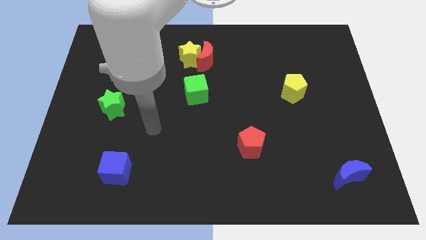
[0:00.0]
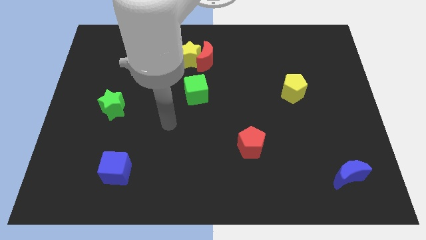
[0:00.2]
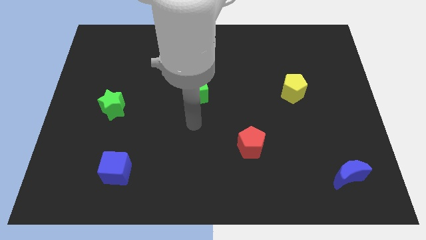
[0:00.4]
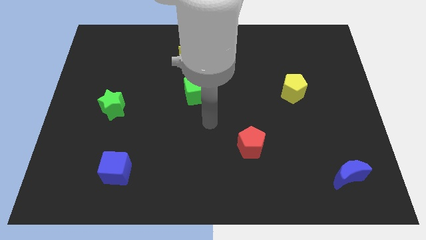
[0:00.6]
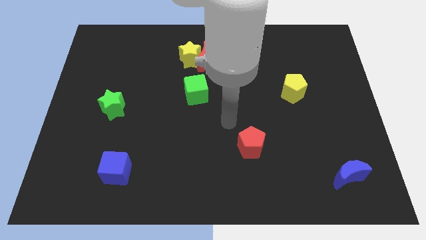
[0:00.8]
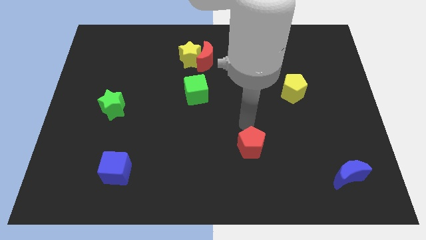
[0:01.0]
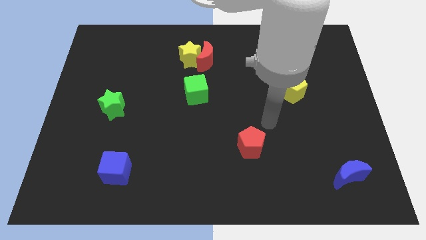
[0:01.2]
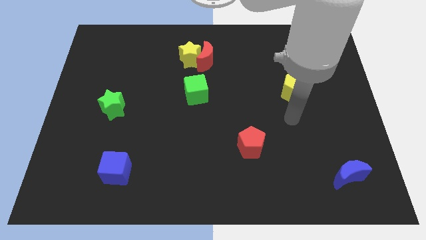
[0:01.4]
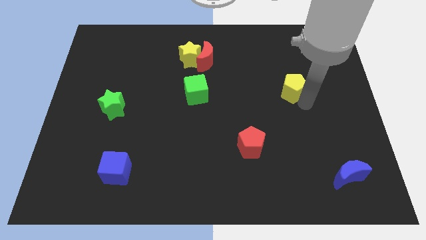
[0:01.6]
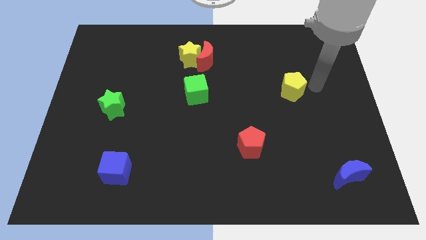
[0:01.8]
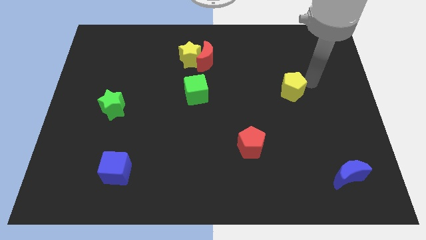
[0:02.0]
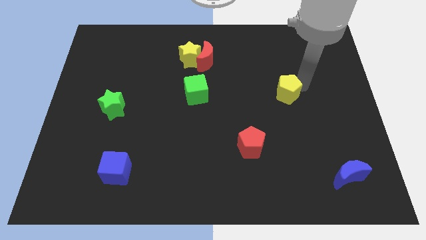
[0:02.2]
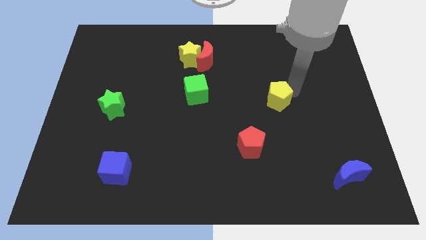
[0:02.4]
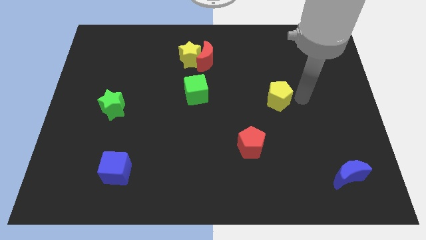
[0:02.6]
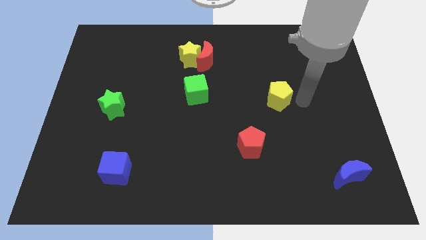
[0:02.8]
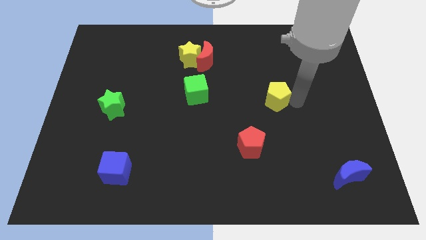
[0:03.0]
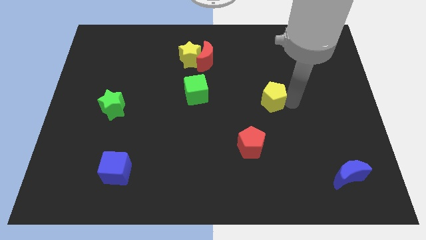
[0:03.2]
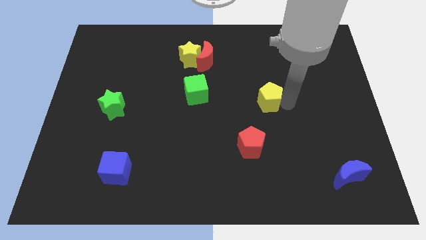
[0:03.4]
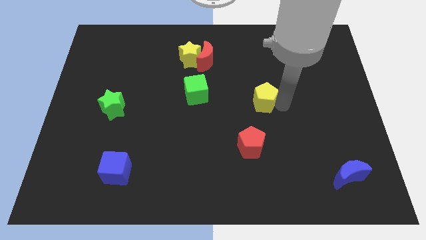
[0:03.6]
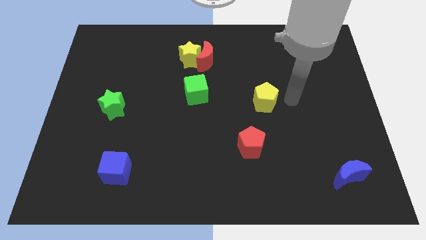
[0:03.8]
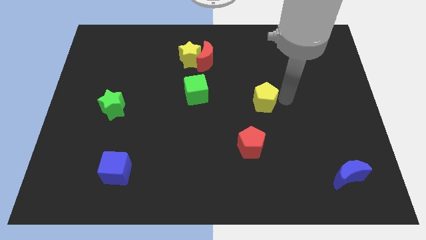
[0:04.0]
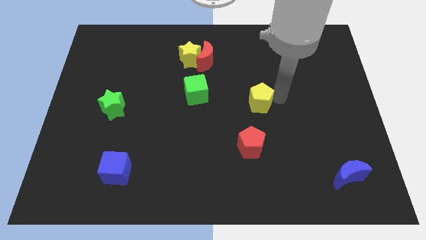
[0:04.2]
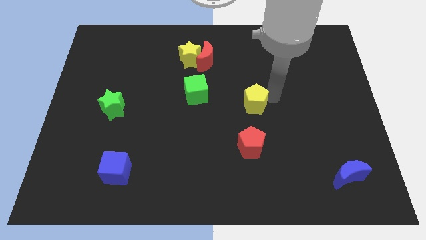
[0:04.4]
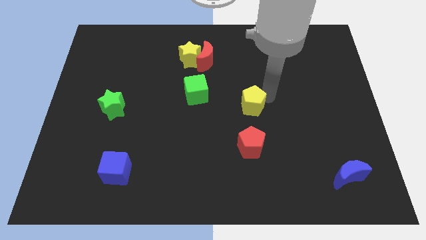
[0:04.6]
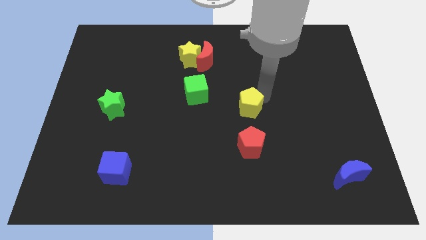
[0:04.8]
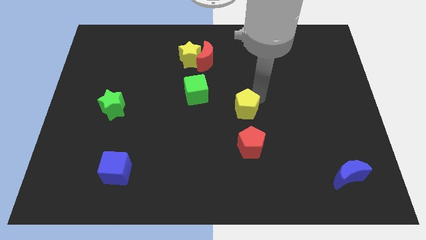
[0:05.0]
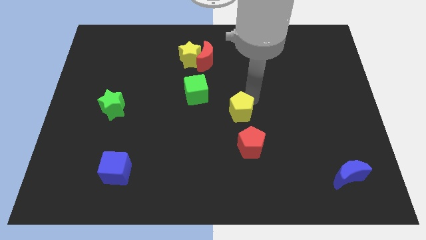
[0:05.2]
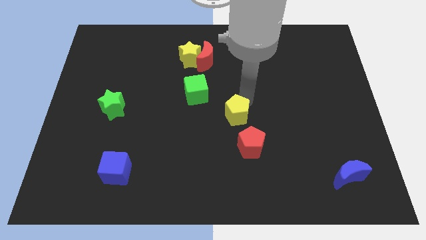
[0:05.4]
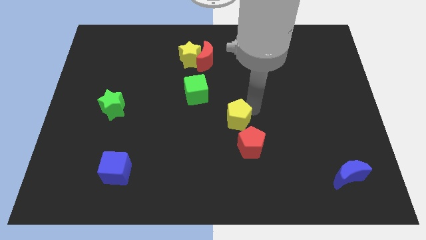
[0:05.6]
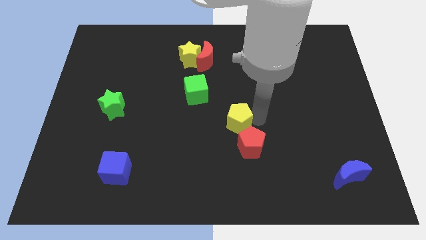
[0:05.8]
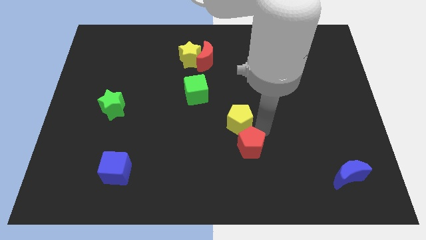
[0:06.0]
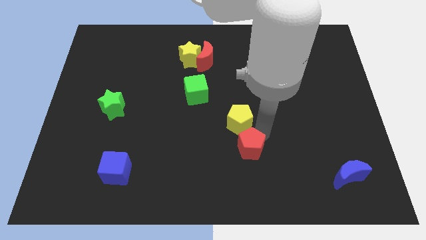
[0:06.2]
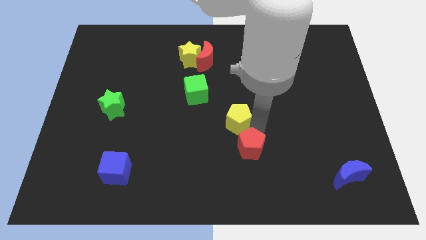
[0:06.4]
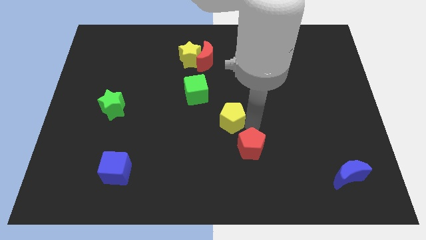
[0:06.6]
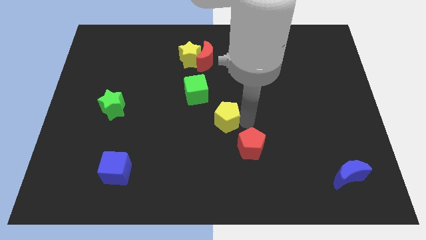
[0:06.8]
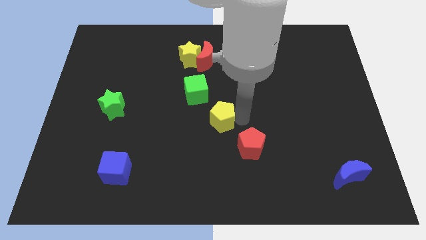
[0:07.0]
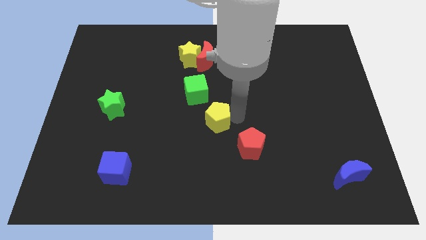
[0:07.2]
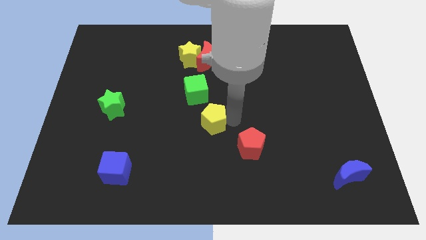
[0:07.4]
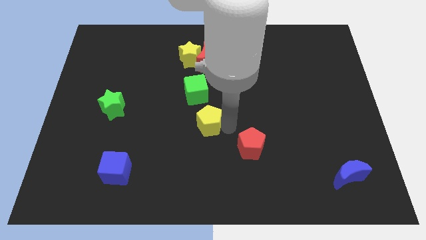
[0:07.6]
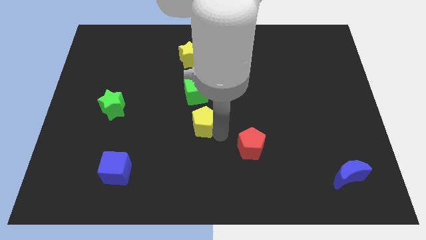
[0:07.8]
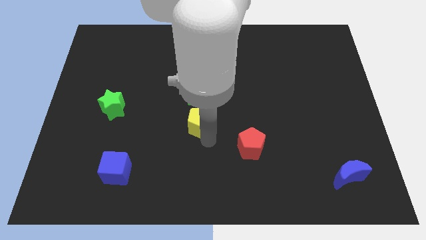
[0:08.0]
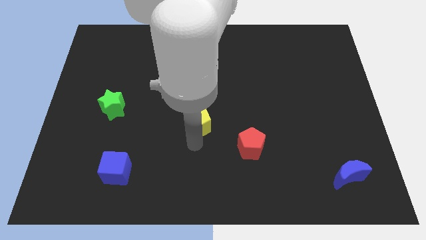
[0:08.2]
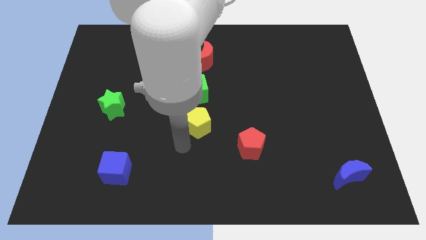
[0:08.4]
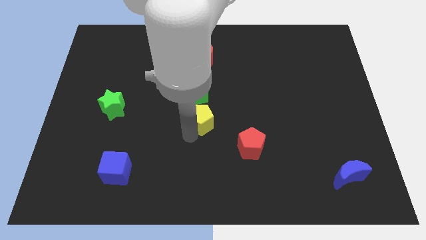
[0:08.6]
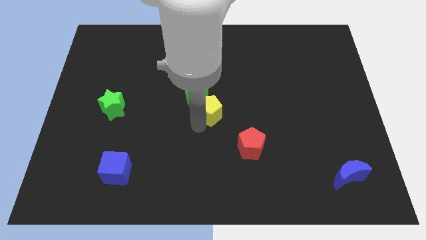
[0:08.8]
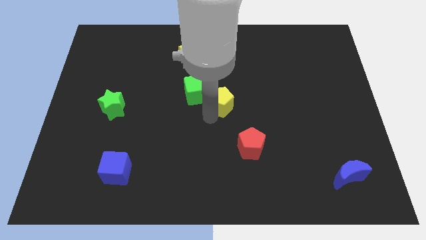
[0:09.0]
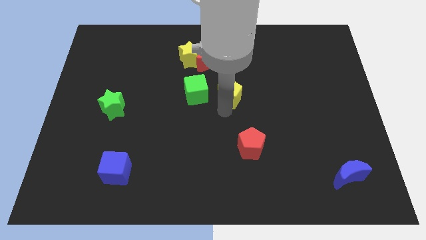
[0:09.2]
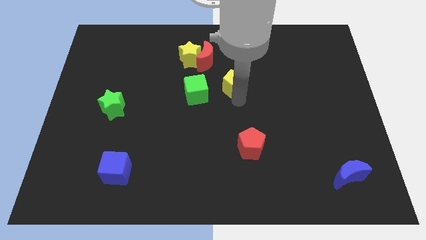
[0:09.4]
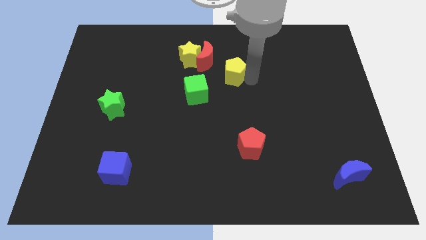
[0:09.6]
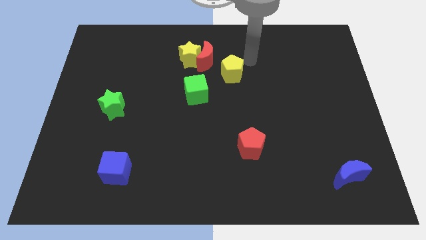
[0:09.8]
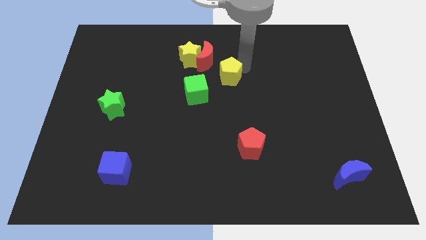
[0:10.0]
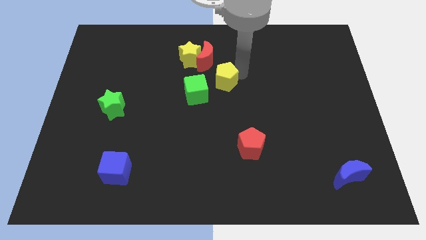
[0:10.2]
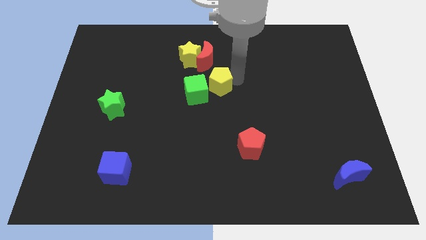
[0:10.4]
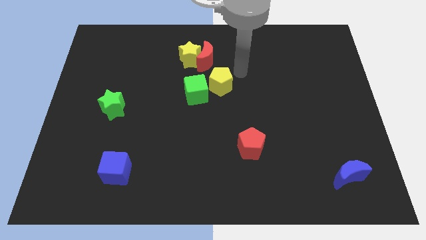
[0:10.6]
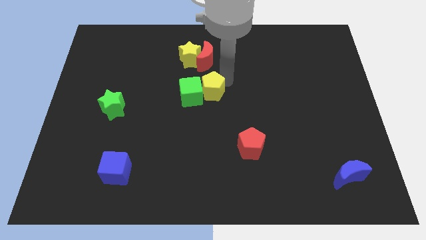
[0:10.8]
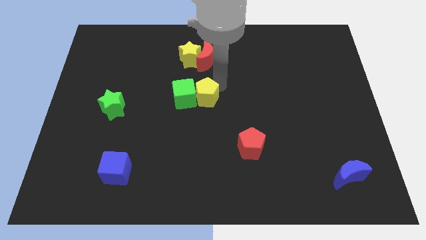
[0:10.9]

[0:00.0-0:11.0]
move the yellow pentagon to the left

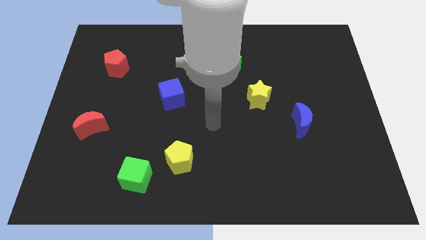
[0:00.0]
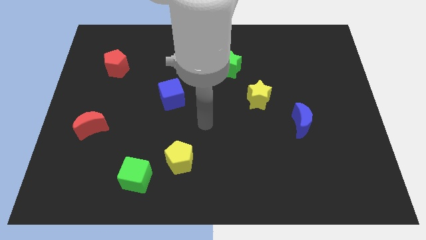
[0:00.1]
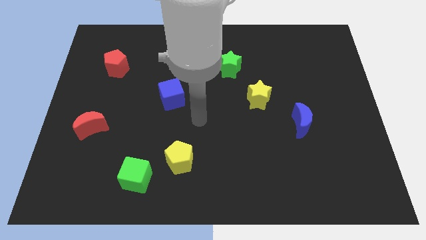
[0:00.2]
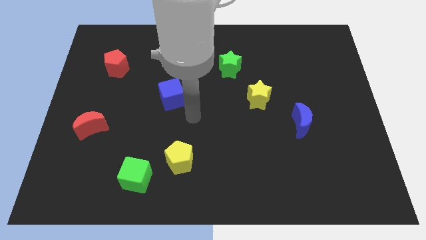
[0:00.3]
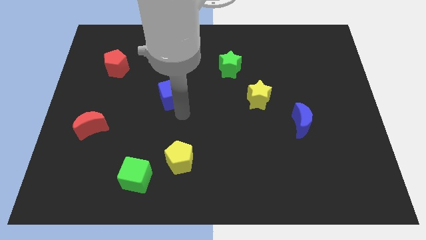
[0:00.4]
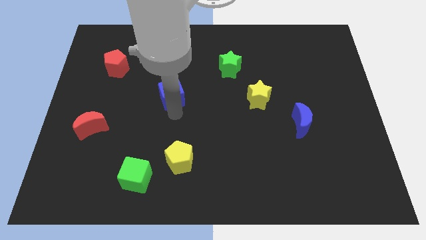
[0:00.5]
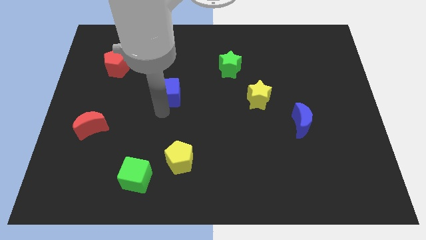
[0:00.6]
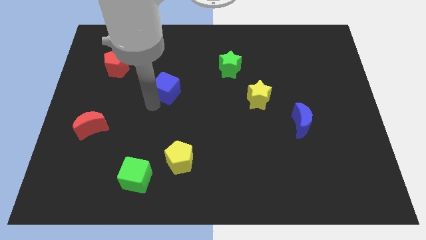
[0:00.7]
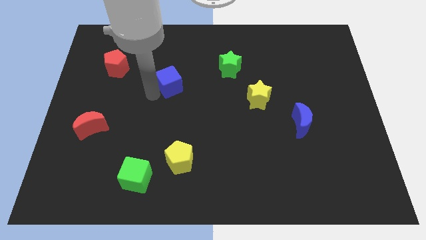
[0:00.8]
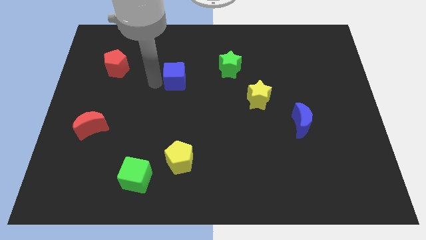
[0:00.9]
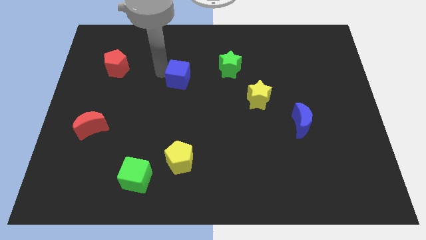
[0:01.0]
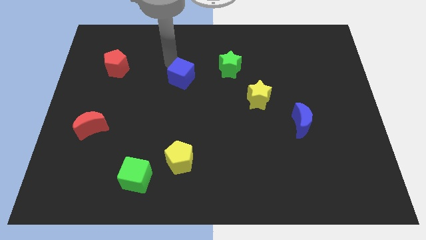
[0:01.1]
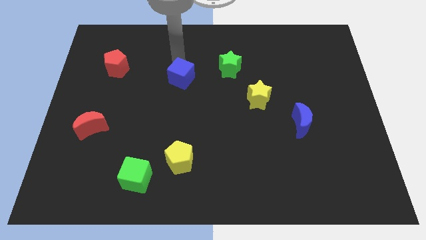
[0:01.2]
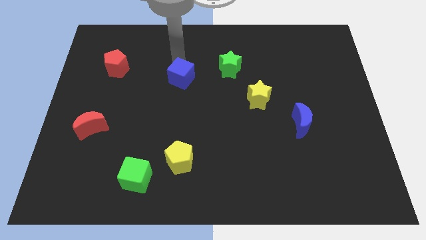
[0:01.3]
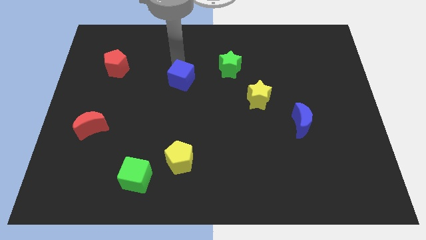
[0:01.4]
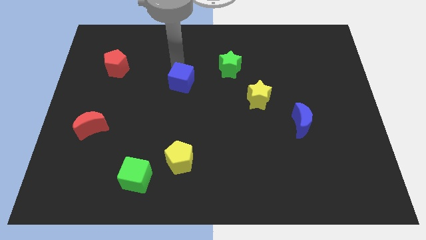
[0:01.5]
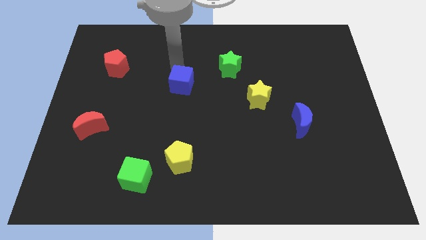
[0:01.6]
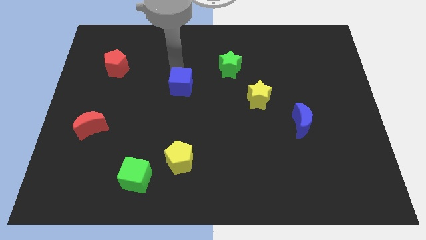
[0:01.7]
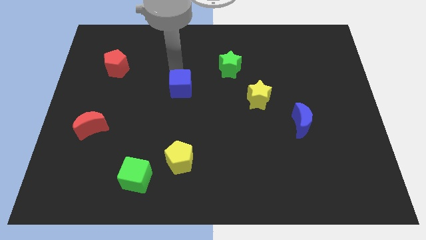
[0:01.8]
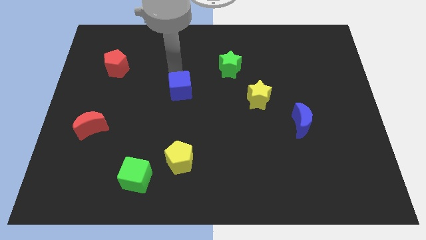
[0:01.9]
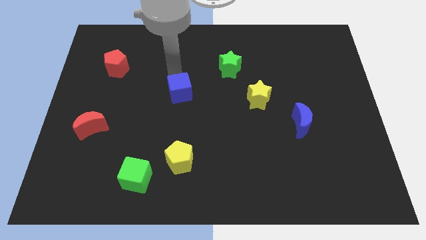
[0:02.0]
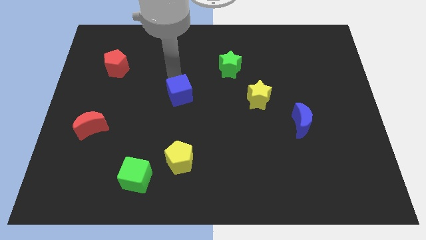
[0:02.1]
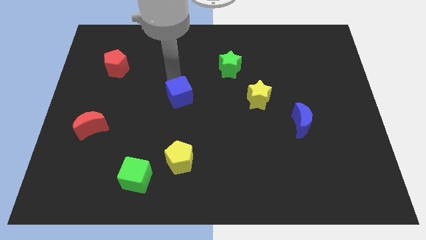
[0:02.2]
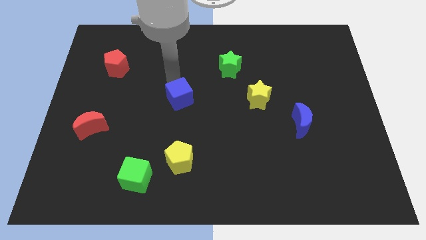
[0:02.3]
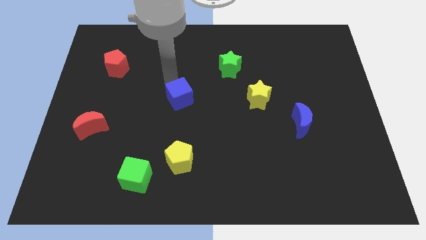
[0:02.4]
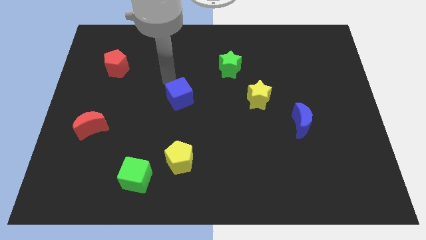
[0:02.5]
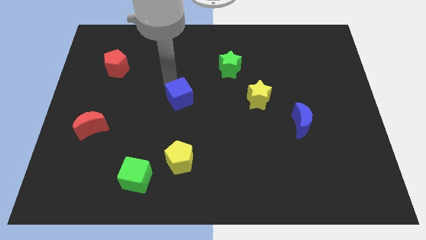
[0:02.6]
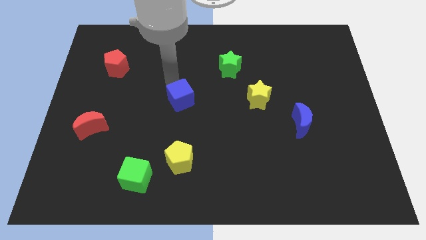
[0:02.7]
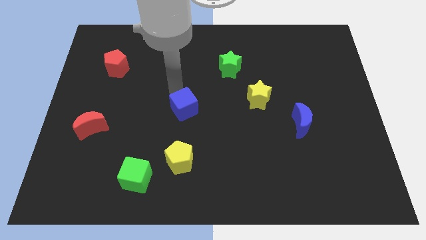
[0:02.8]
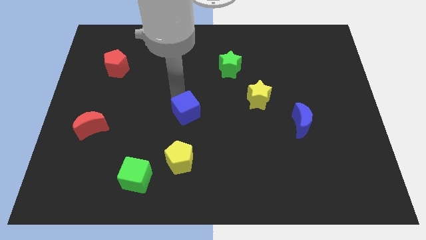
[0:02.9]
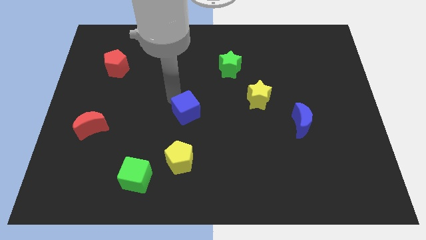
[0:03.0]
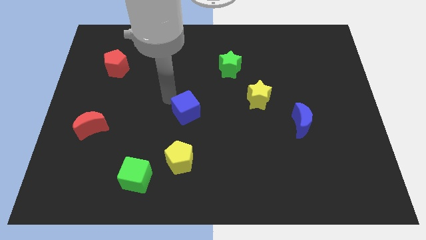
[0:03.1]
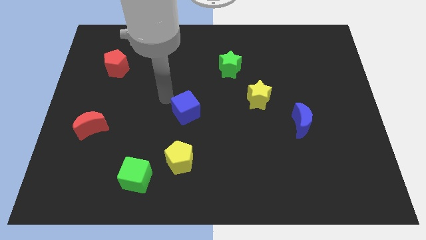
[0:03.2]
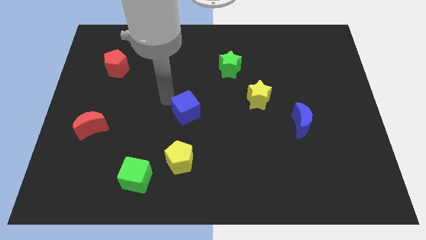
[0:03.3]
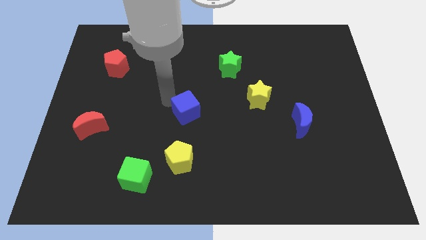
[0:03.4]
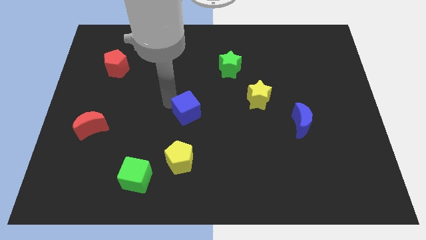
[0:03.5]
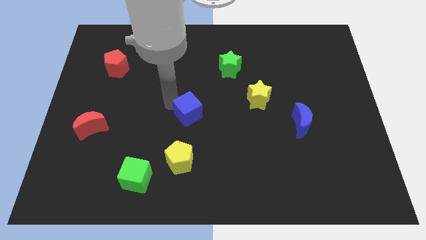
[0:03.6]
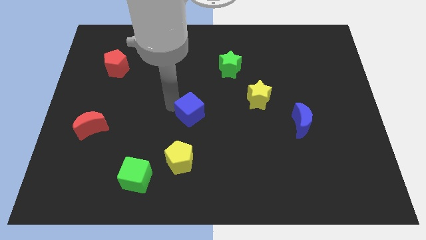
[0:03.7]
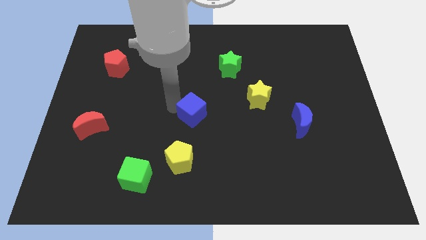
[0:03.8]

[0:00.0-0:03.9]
move the blue cube somewhat diagonally down and to the right
